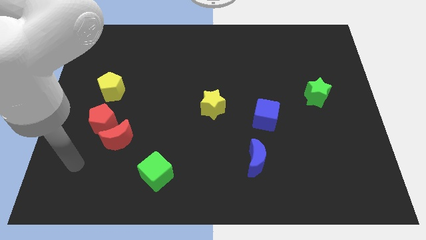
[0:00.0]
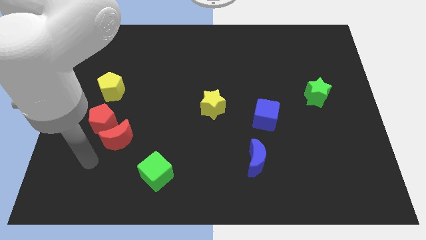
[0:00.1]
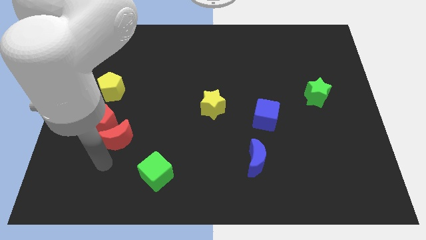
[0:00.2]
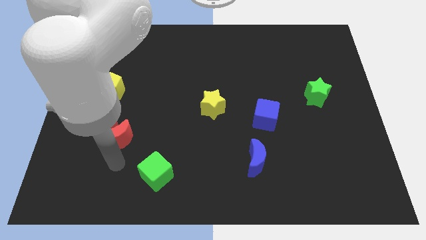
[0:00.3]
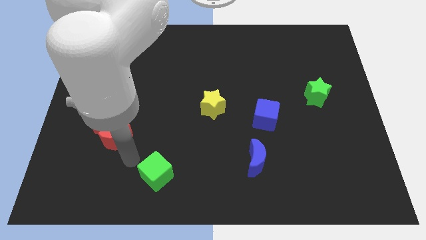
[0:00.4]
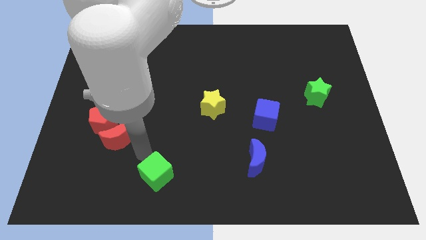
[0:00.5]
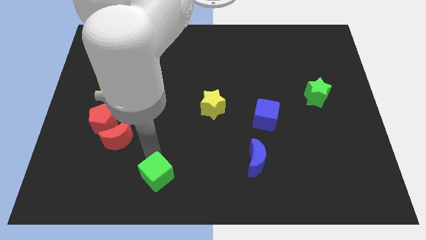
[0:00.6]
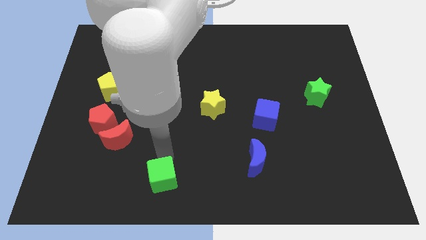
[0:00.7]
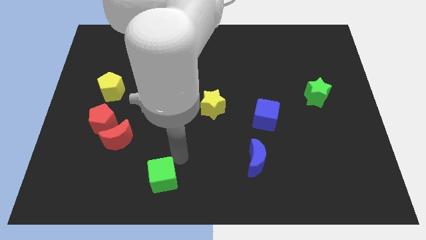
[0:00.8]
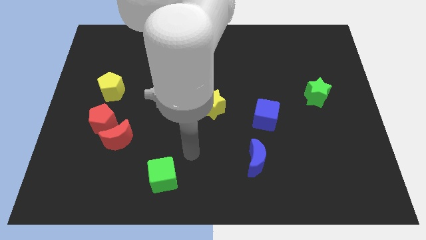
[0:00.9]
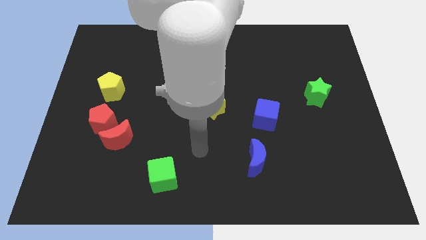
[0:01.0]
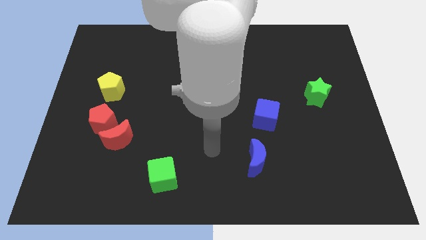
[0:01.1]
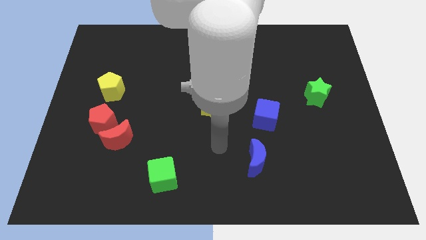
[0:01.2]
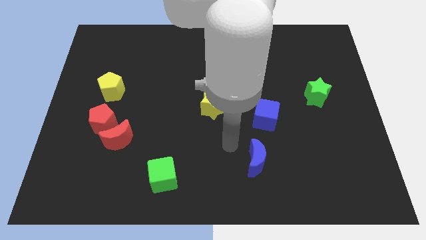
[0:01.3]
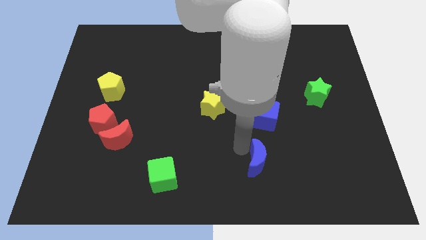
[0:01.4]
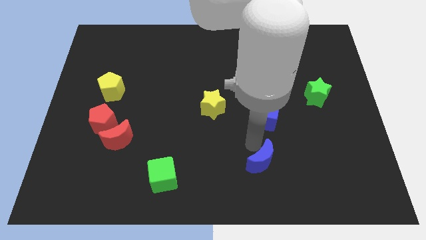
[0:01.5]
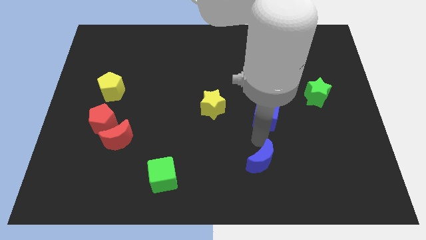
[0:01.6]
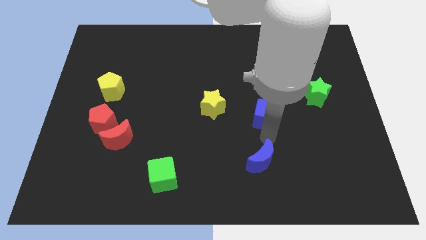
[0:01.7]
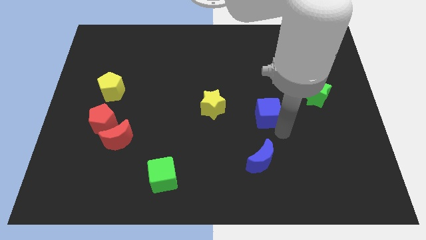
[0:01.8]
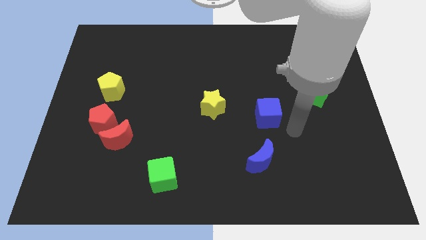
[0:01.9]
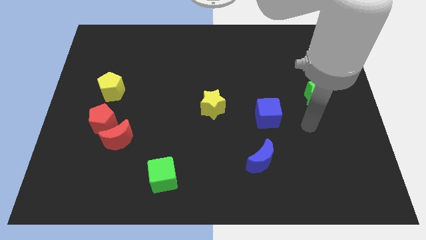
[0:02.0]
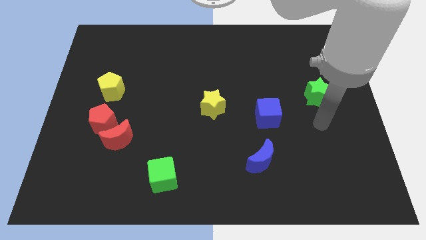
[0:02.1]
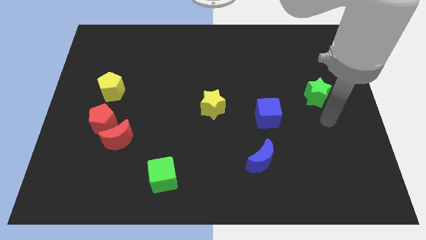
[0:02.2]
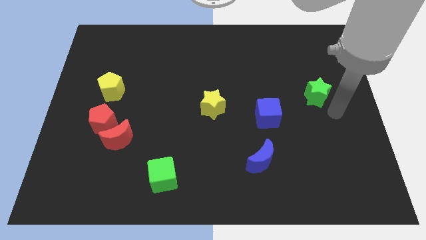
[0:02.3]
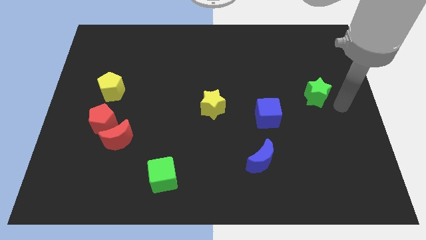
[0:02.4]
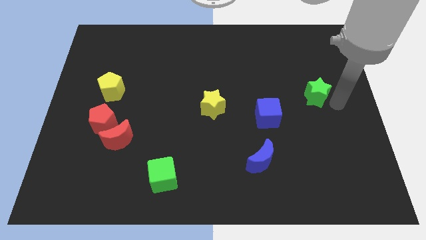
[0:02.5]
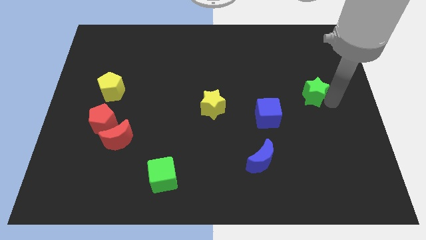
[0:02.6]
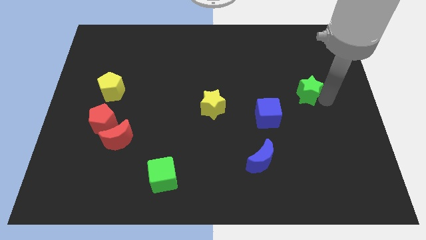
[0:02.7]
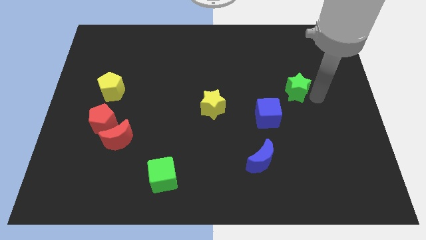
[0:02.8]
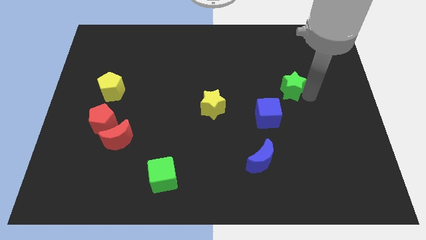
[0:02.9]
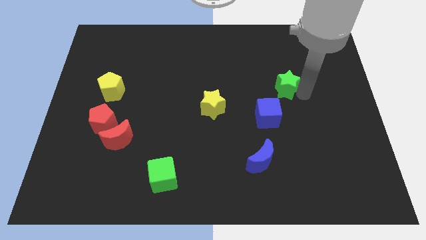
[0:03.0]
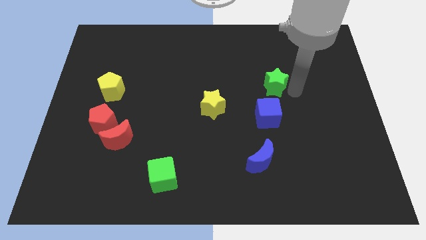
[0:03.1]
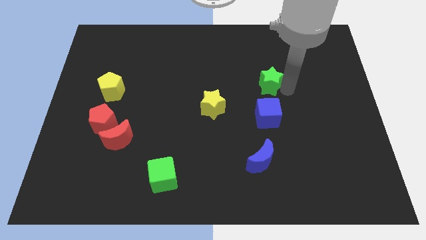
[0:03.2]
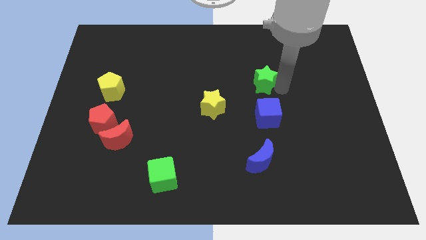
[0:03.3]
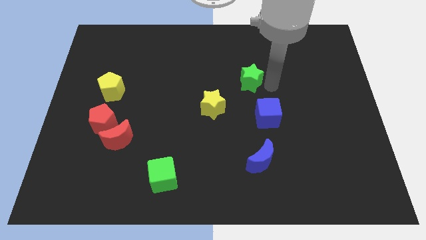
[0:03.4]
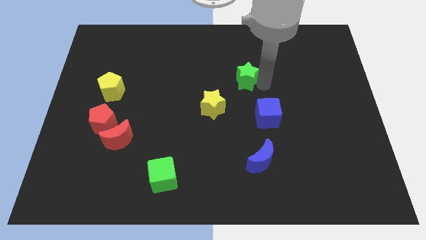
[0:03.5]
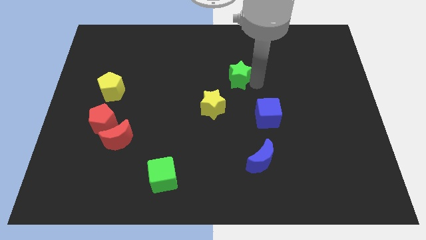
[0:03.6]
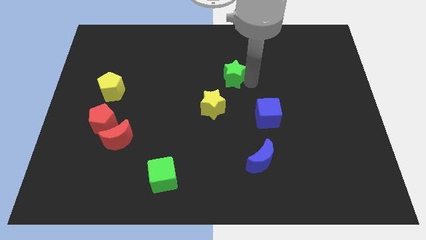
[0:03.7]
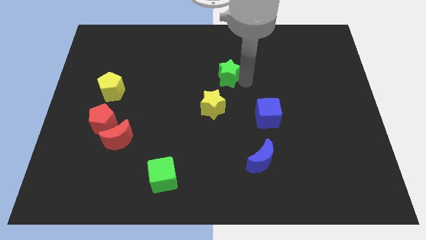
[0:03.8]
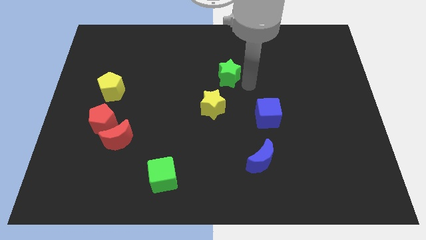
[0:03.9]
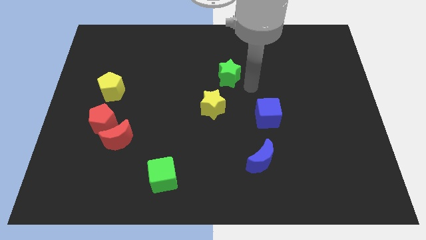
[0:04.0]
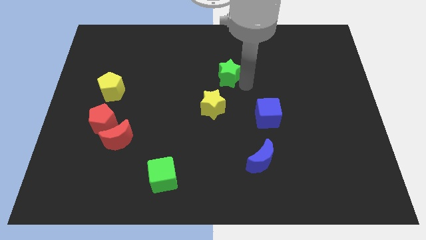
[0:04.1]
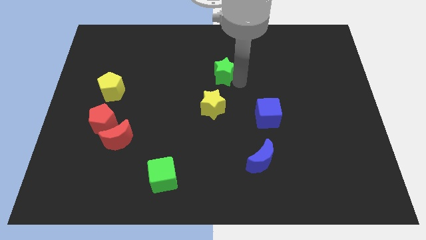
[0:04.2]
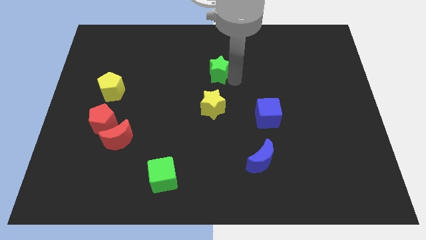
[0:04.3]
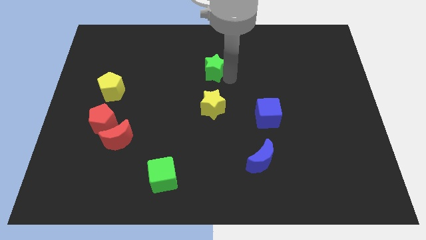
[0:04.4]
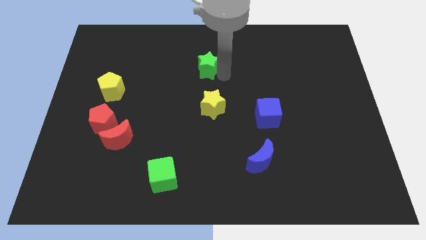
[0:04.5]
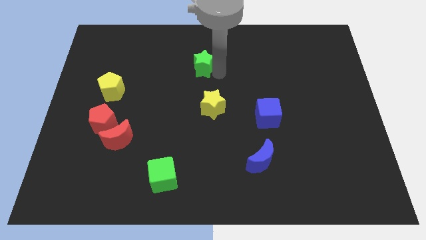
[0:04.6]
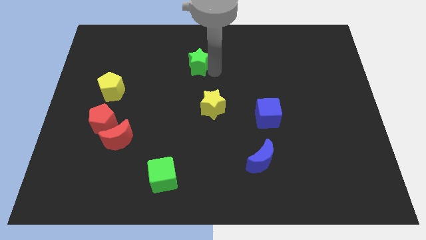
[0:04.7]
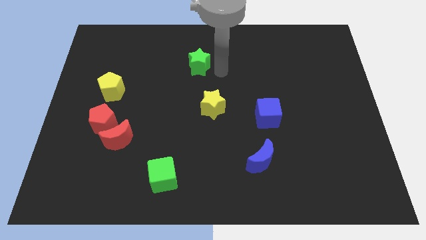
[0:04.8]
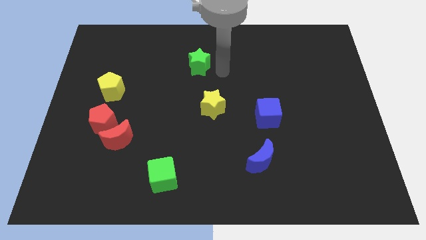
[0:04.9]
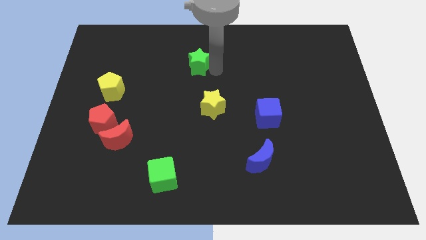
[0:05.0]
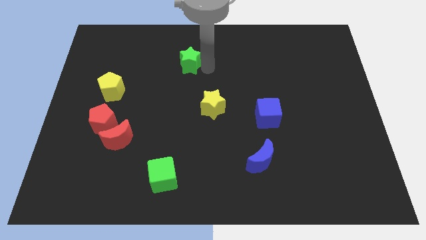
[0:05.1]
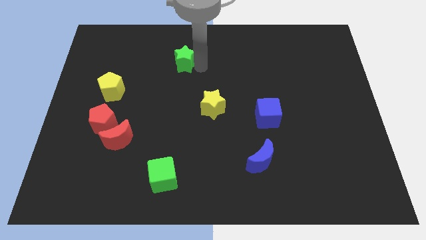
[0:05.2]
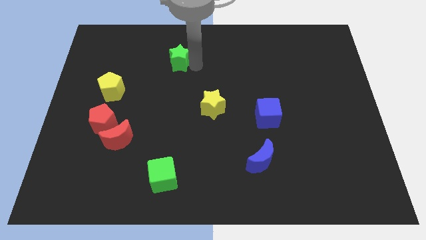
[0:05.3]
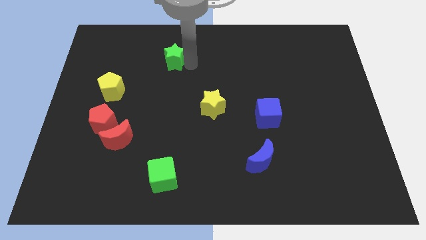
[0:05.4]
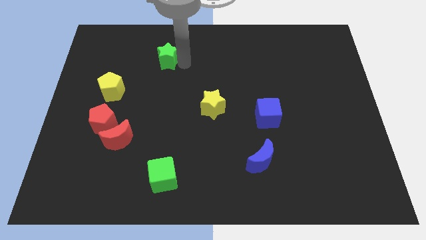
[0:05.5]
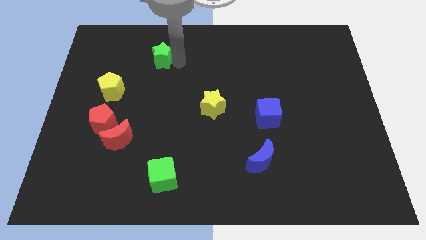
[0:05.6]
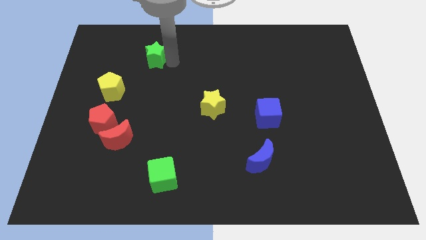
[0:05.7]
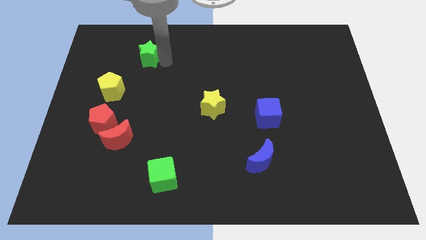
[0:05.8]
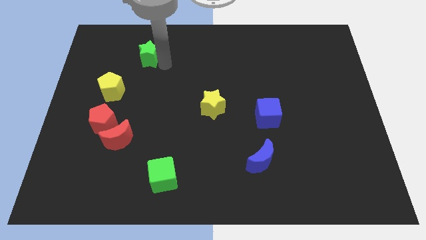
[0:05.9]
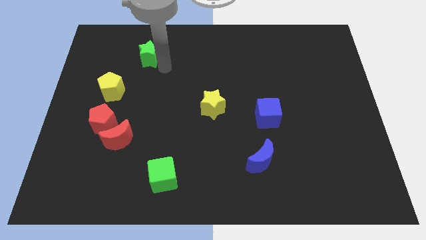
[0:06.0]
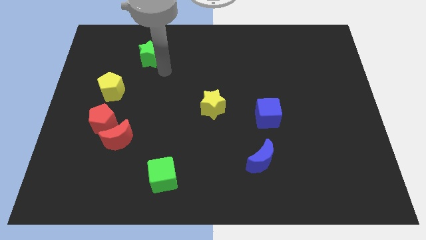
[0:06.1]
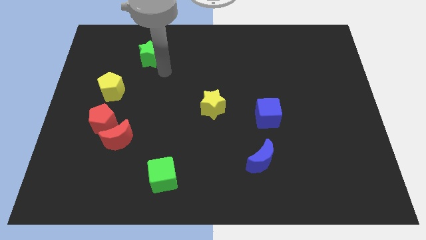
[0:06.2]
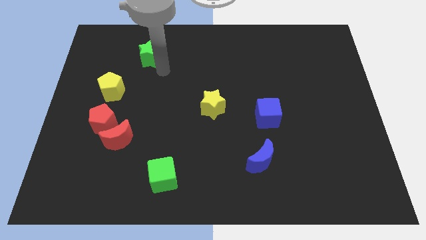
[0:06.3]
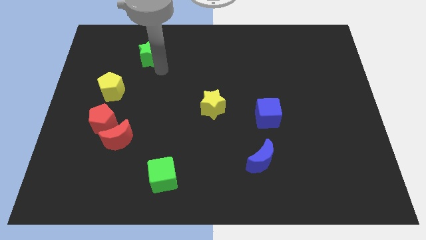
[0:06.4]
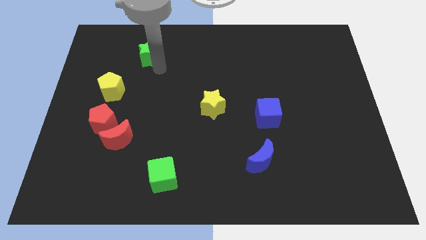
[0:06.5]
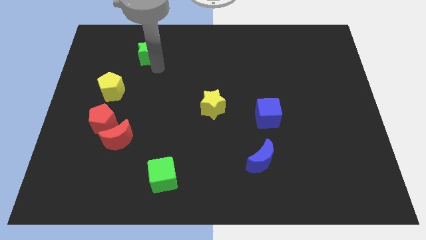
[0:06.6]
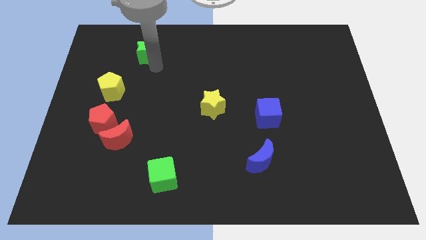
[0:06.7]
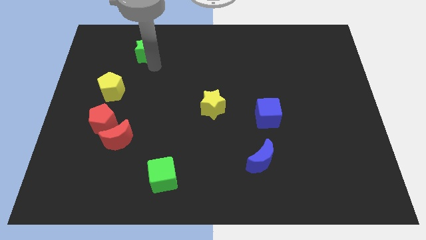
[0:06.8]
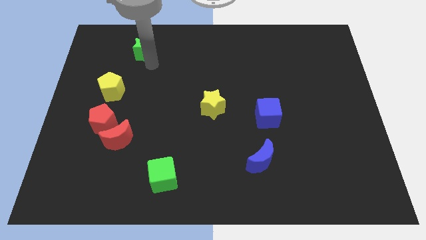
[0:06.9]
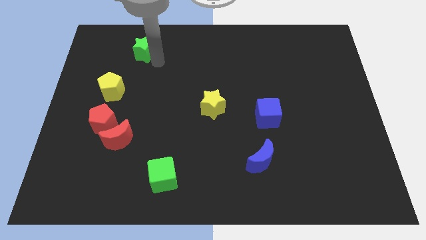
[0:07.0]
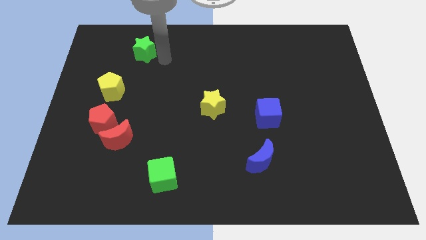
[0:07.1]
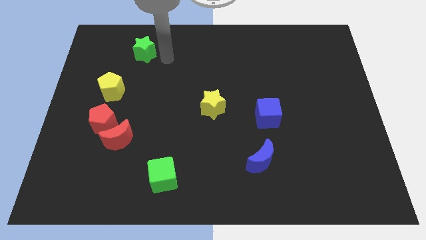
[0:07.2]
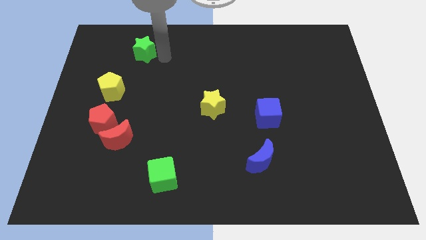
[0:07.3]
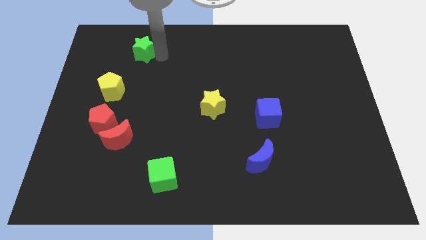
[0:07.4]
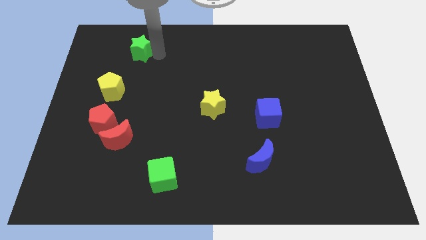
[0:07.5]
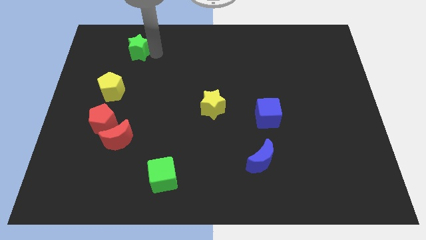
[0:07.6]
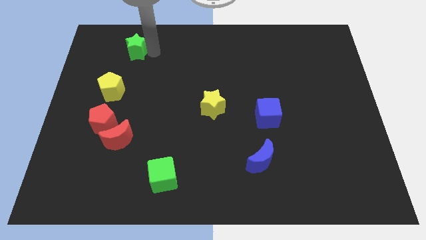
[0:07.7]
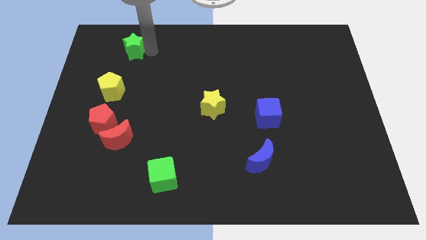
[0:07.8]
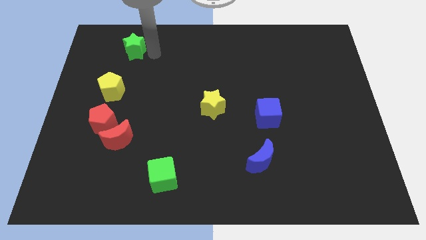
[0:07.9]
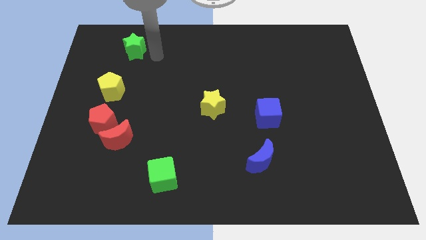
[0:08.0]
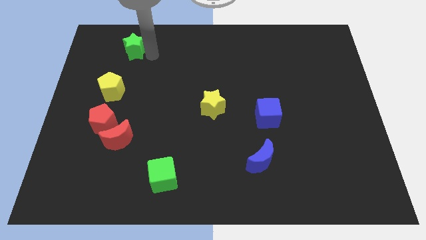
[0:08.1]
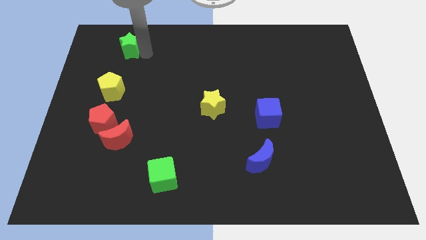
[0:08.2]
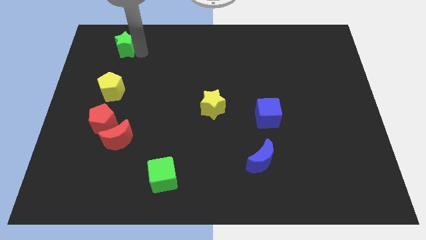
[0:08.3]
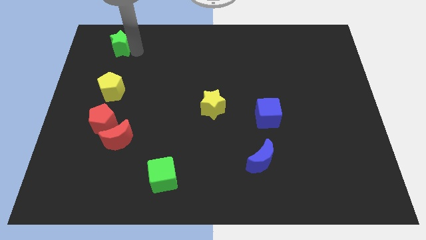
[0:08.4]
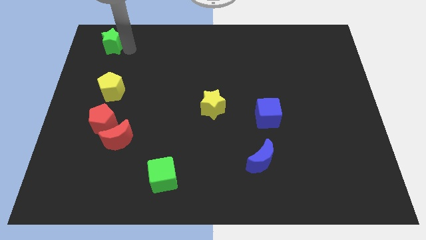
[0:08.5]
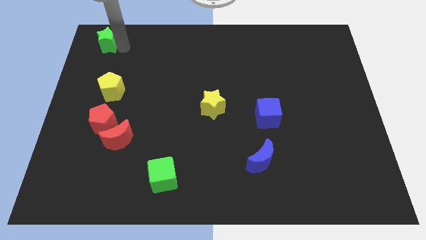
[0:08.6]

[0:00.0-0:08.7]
move the green star to the top left of the board
